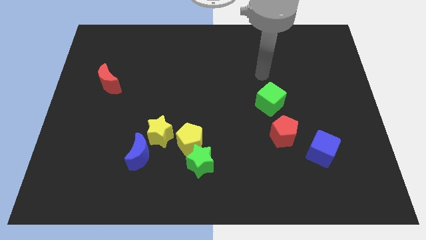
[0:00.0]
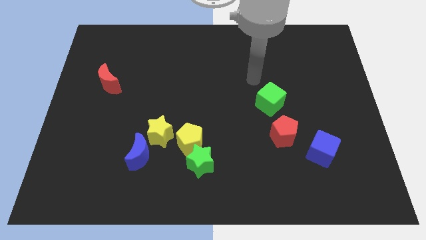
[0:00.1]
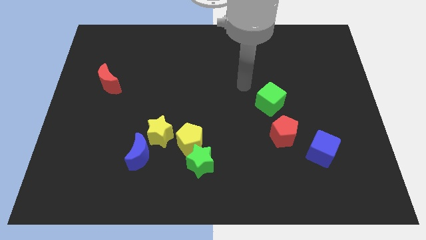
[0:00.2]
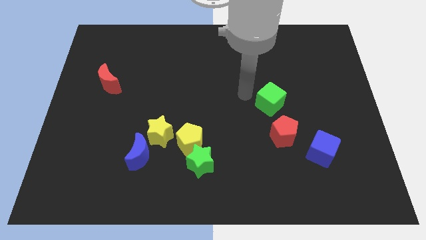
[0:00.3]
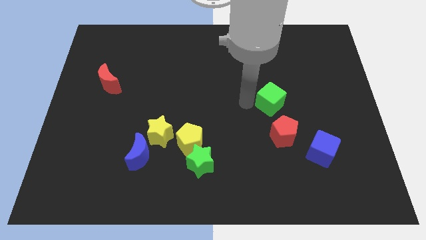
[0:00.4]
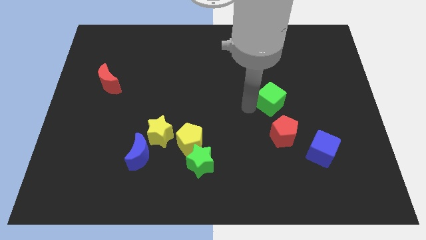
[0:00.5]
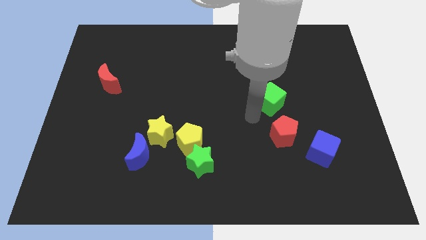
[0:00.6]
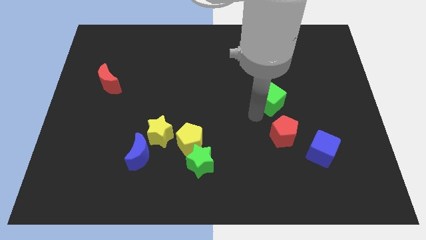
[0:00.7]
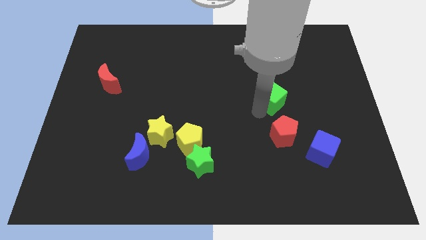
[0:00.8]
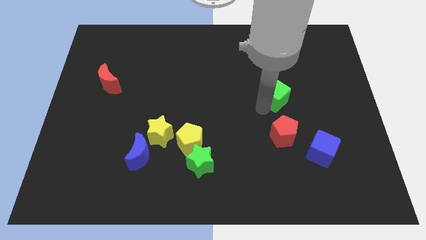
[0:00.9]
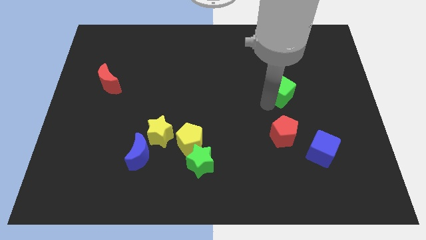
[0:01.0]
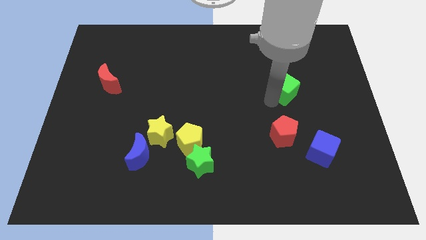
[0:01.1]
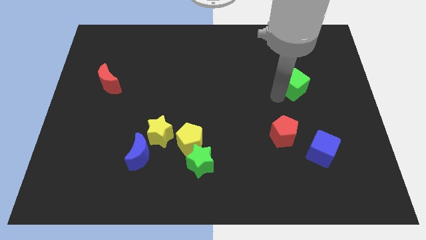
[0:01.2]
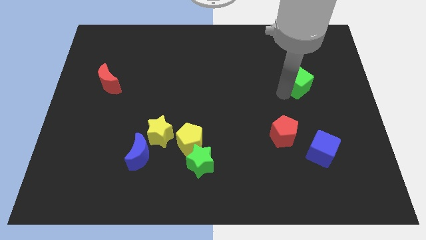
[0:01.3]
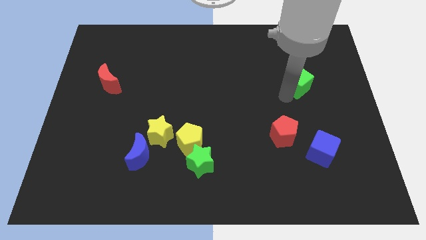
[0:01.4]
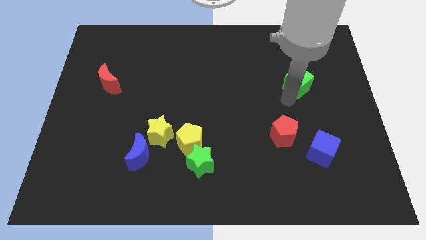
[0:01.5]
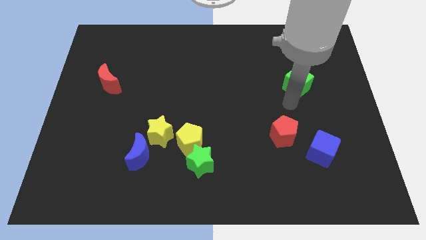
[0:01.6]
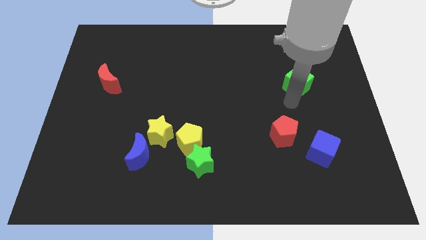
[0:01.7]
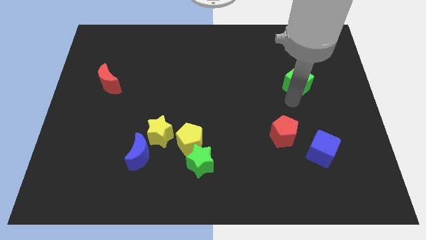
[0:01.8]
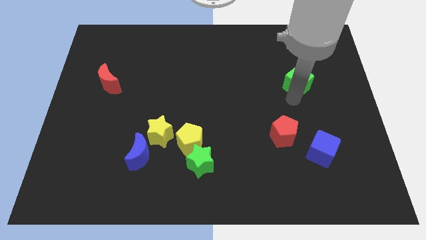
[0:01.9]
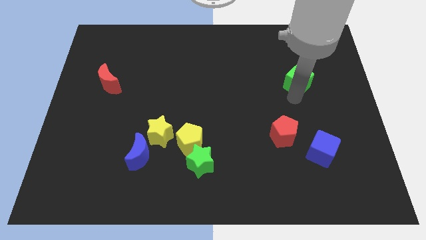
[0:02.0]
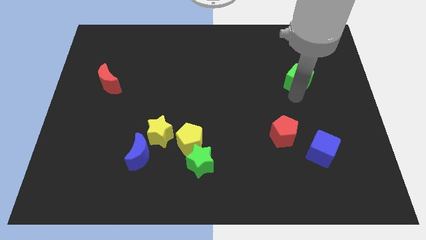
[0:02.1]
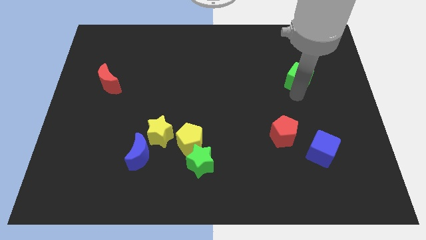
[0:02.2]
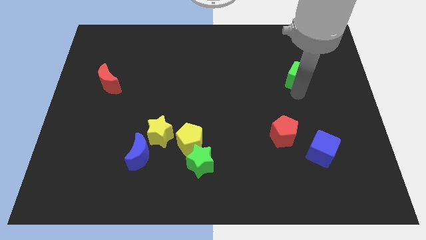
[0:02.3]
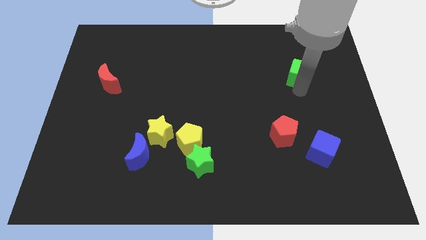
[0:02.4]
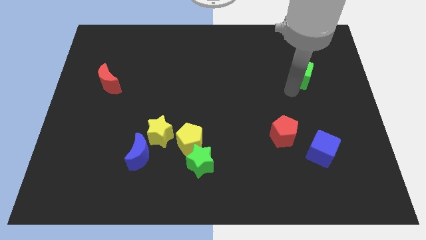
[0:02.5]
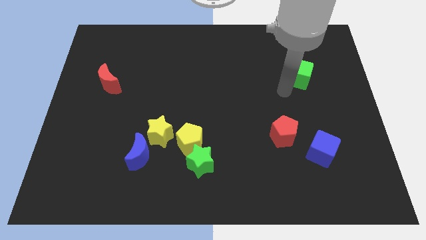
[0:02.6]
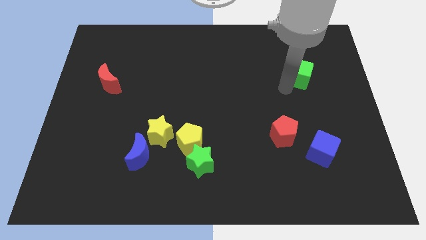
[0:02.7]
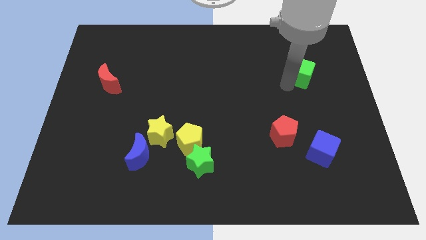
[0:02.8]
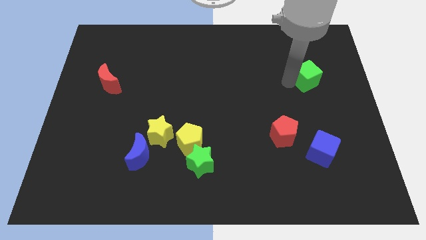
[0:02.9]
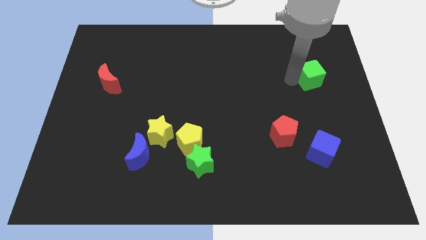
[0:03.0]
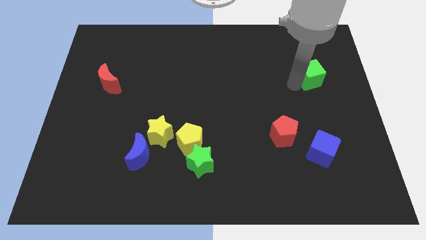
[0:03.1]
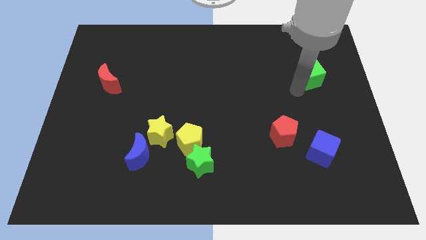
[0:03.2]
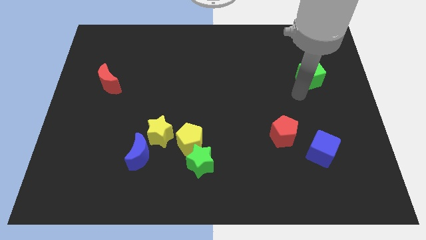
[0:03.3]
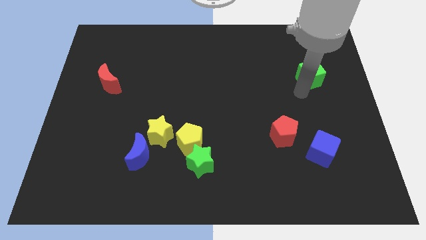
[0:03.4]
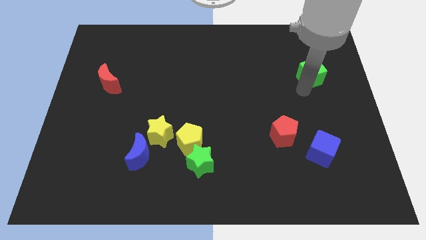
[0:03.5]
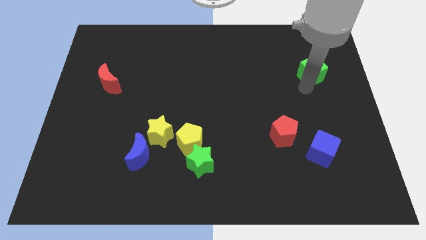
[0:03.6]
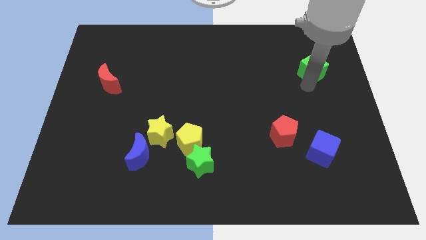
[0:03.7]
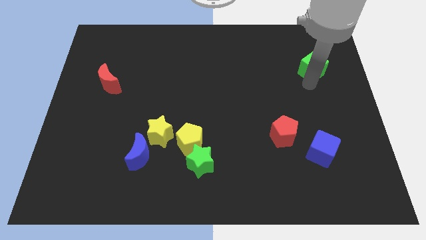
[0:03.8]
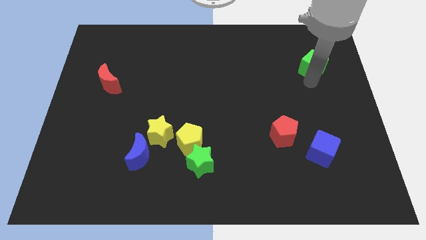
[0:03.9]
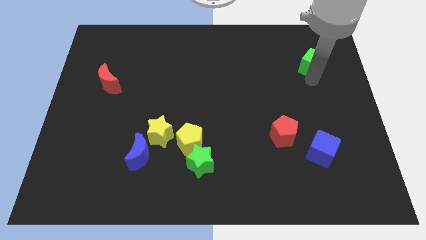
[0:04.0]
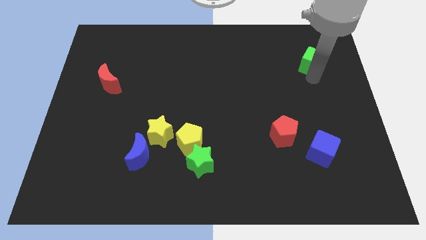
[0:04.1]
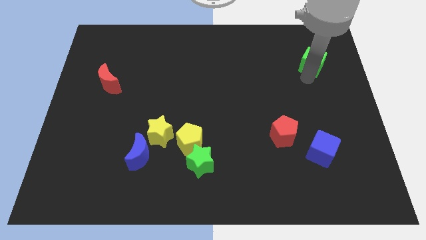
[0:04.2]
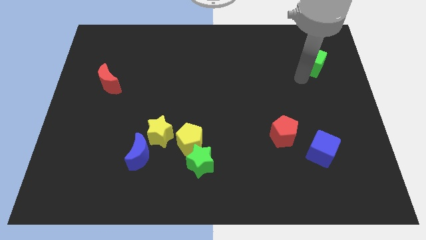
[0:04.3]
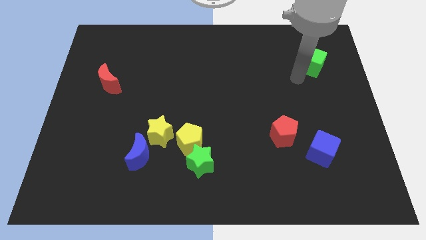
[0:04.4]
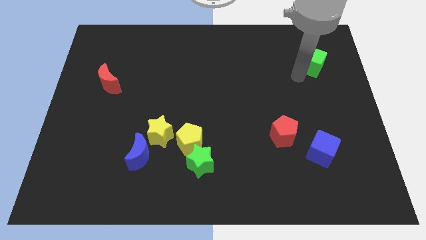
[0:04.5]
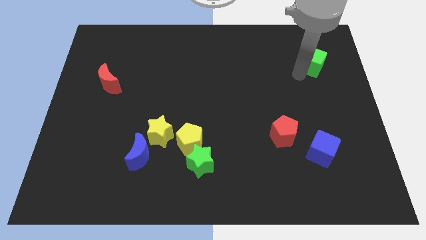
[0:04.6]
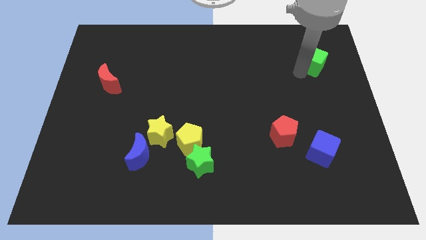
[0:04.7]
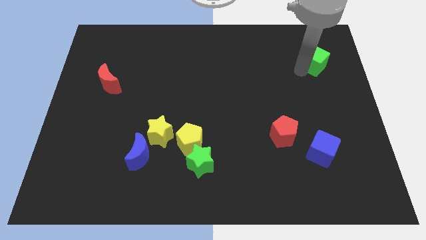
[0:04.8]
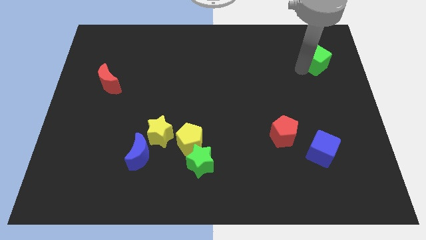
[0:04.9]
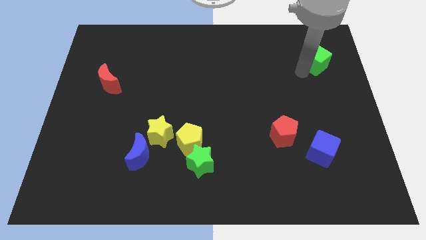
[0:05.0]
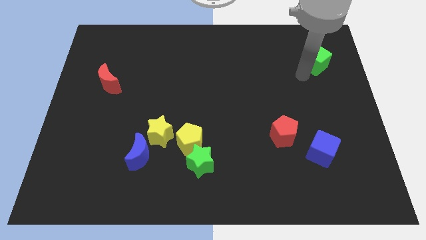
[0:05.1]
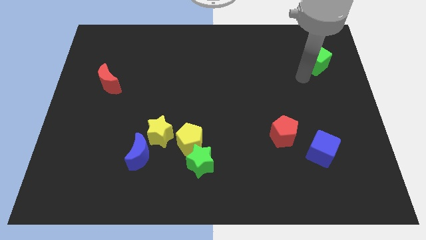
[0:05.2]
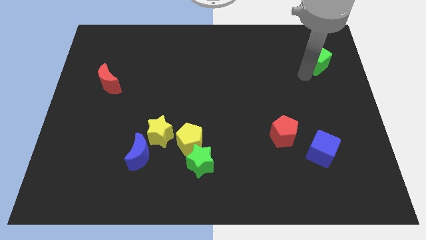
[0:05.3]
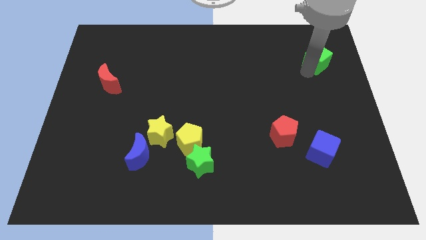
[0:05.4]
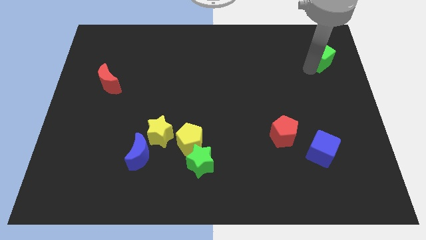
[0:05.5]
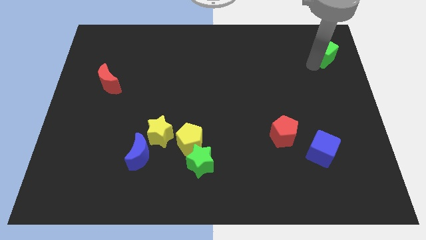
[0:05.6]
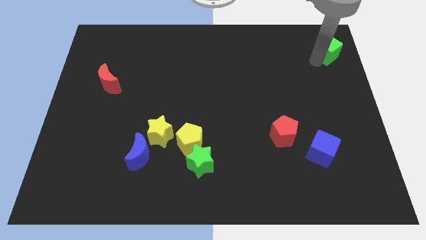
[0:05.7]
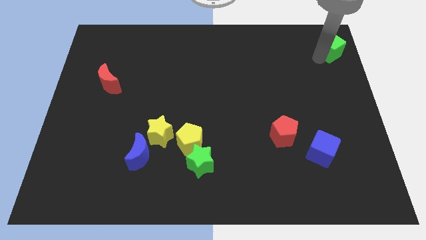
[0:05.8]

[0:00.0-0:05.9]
put the green cube to the top right of the board

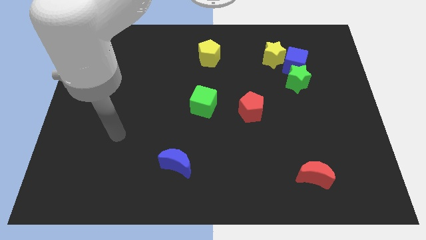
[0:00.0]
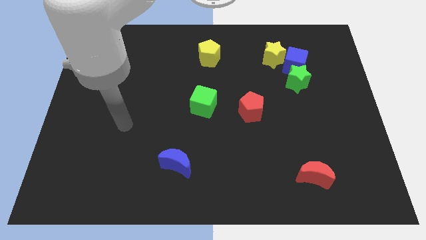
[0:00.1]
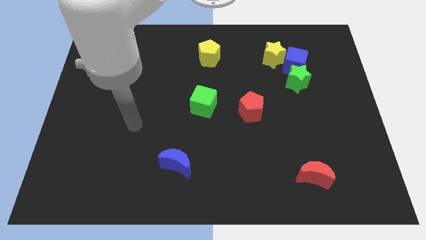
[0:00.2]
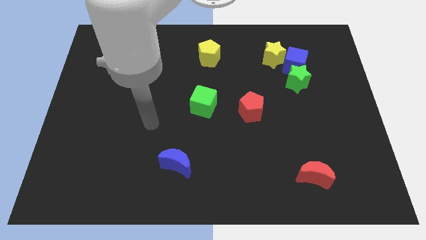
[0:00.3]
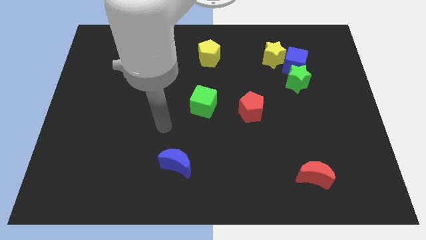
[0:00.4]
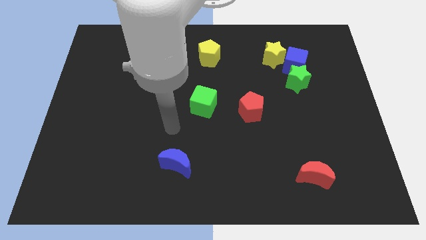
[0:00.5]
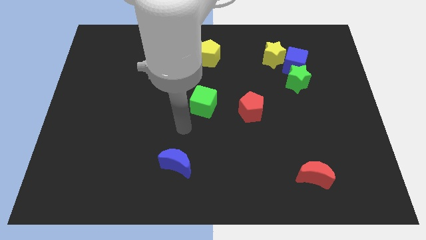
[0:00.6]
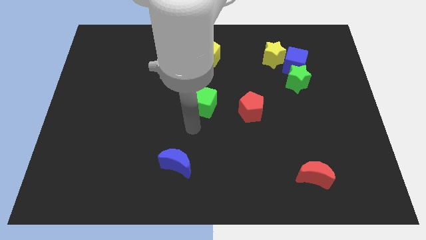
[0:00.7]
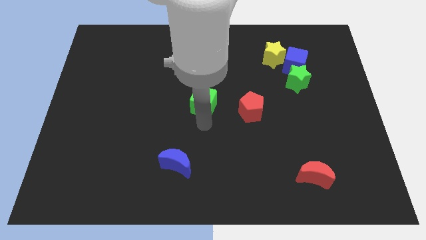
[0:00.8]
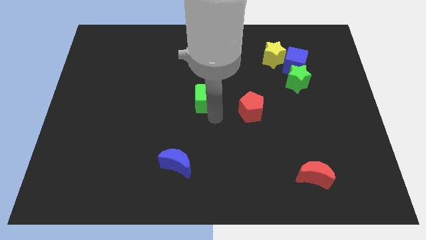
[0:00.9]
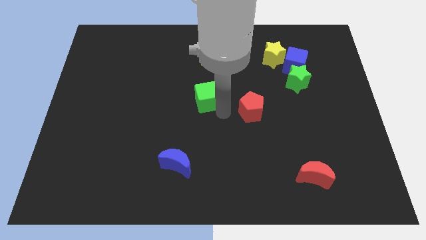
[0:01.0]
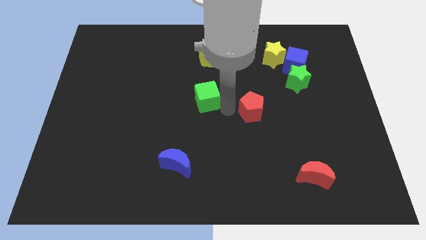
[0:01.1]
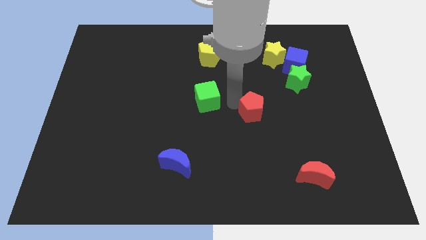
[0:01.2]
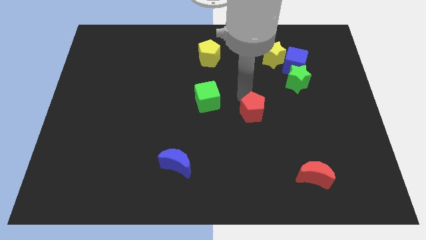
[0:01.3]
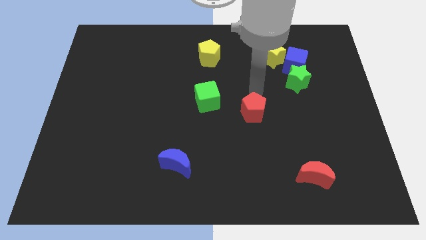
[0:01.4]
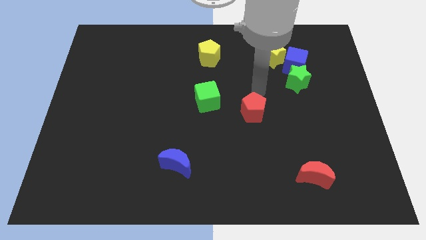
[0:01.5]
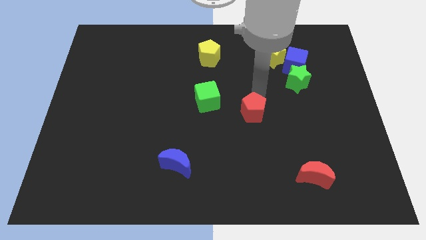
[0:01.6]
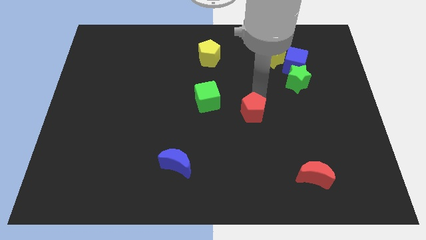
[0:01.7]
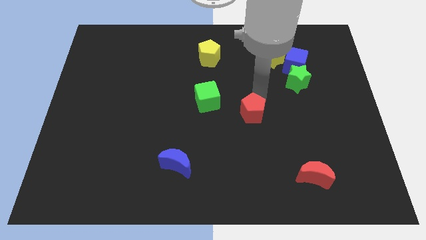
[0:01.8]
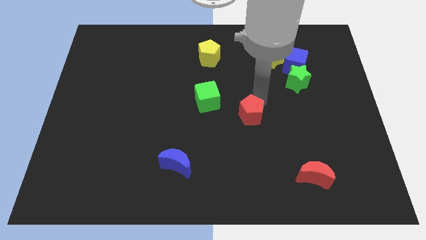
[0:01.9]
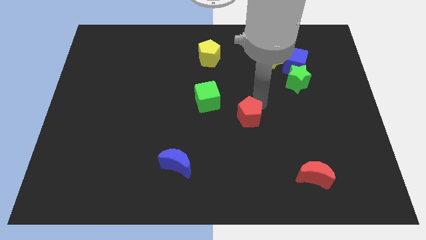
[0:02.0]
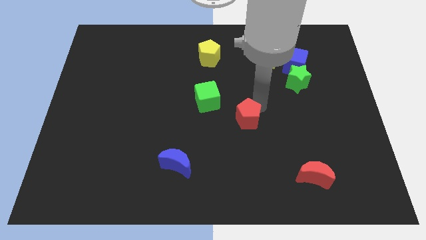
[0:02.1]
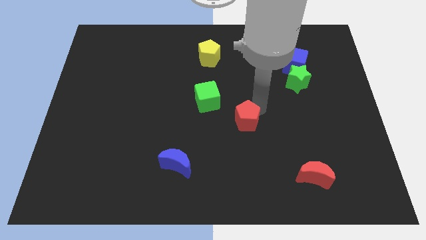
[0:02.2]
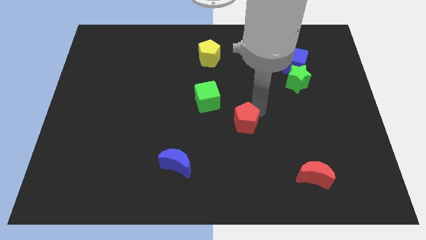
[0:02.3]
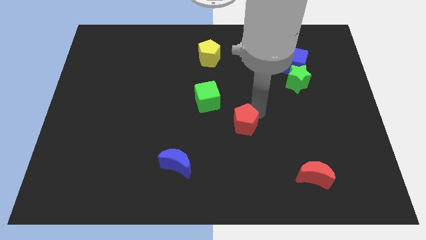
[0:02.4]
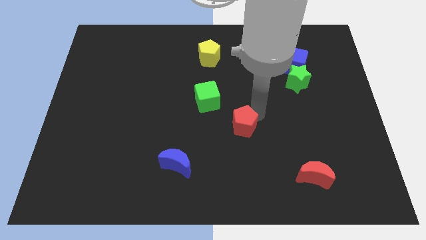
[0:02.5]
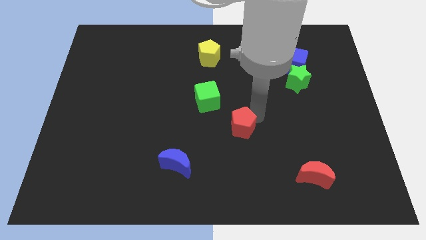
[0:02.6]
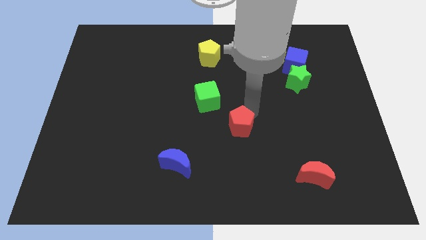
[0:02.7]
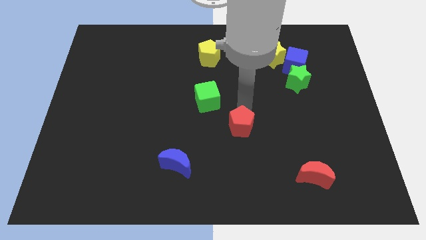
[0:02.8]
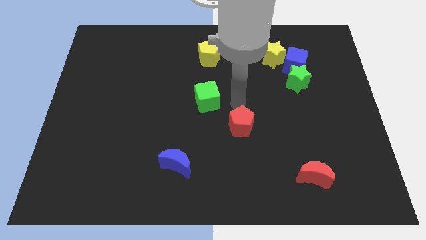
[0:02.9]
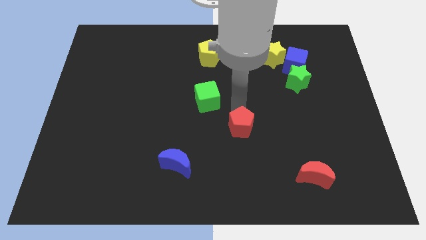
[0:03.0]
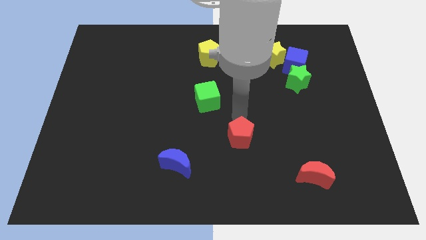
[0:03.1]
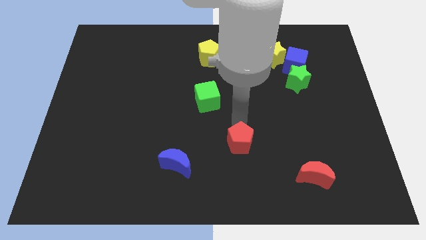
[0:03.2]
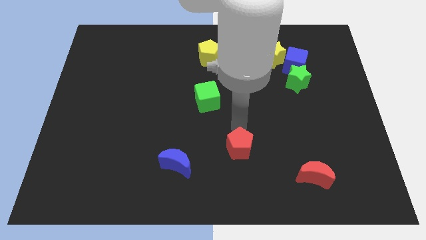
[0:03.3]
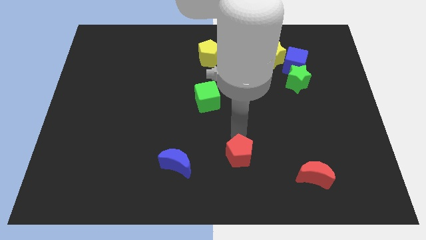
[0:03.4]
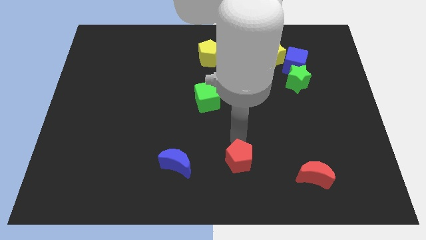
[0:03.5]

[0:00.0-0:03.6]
move the red pentagon to the bottom
